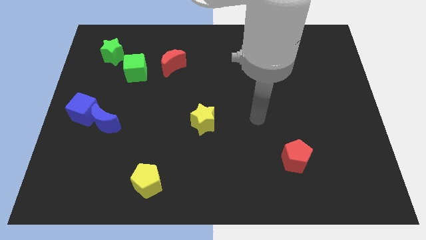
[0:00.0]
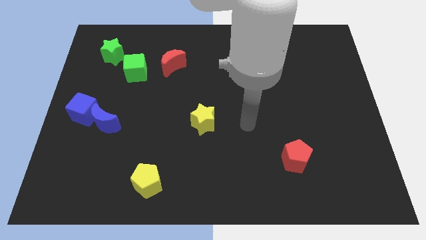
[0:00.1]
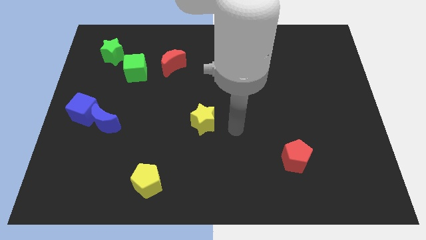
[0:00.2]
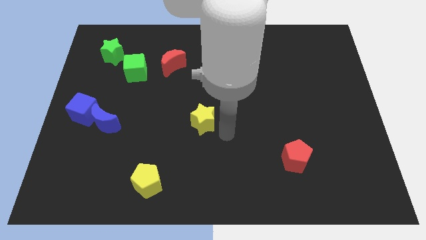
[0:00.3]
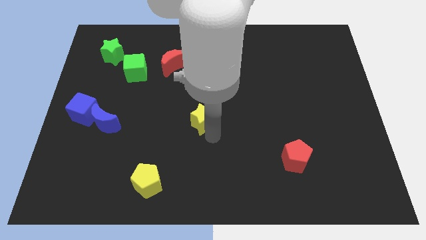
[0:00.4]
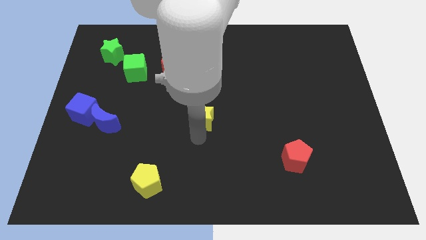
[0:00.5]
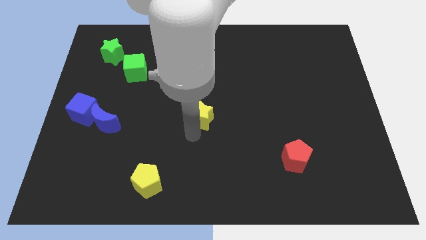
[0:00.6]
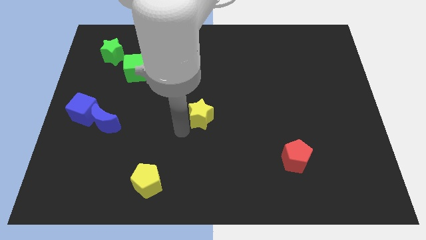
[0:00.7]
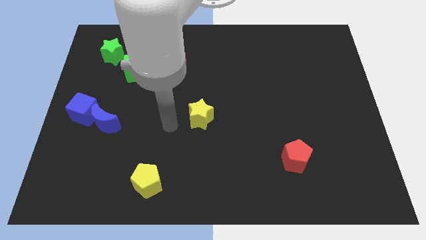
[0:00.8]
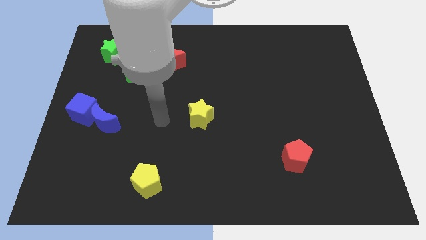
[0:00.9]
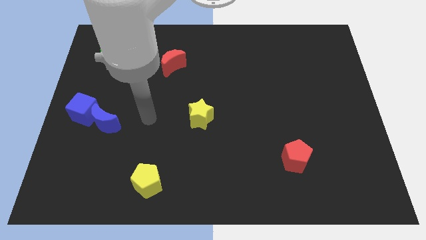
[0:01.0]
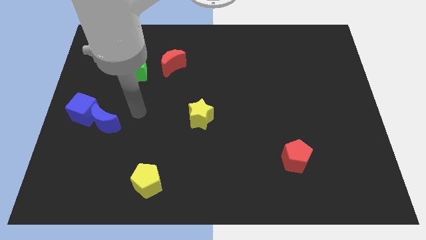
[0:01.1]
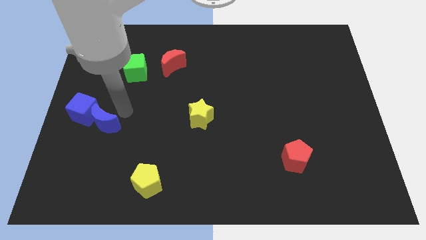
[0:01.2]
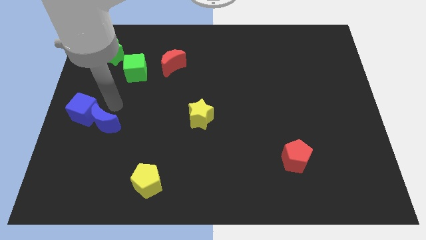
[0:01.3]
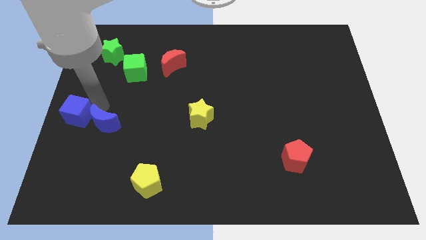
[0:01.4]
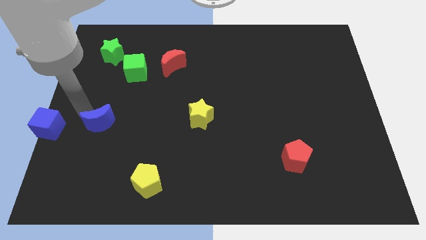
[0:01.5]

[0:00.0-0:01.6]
move the blue moon away from the blue cube

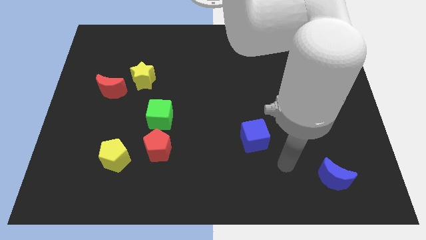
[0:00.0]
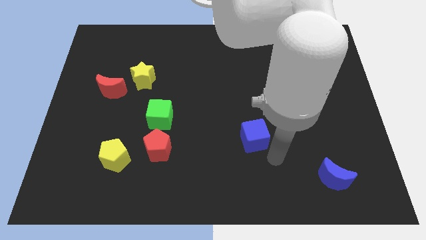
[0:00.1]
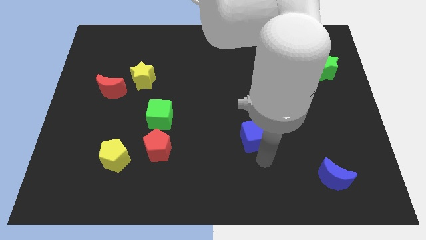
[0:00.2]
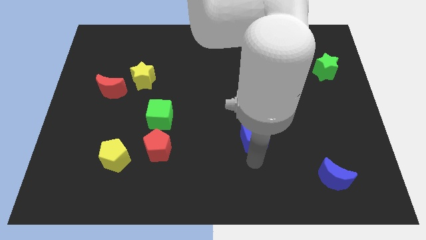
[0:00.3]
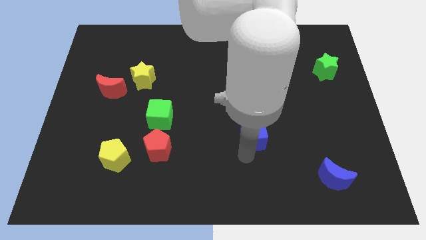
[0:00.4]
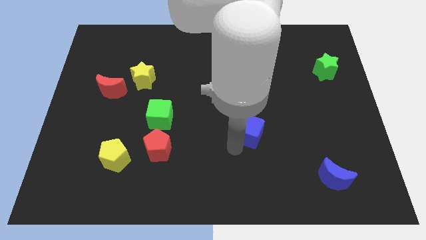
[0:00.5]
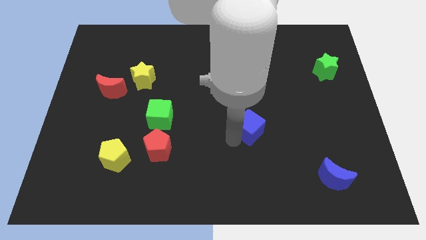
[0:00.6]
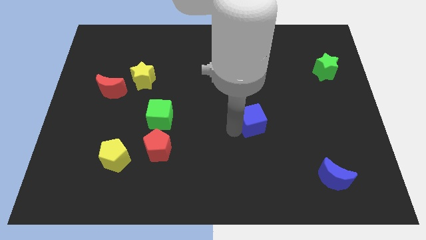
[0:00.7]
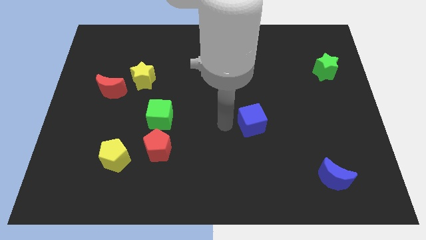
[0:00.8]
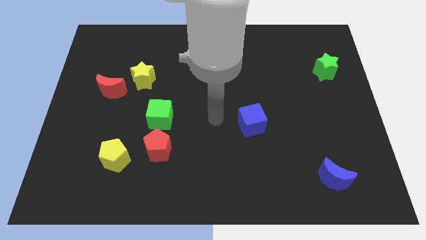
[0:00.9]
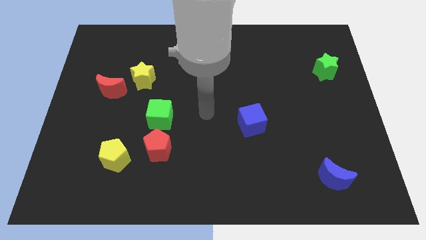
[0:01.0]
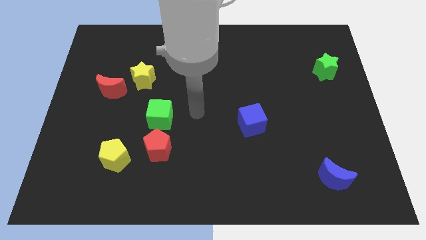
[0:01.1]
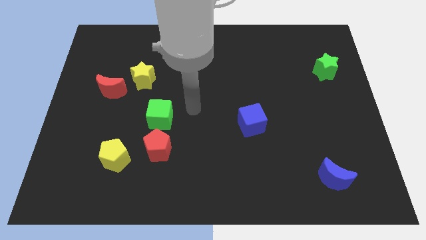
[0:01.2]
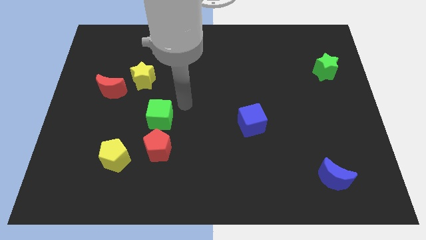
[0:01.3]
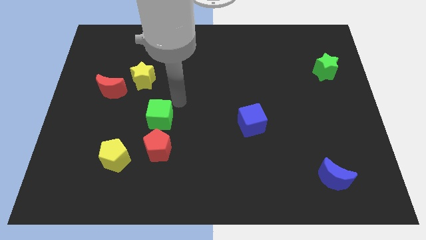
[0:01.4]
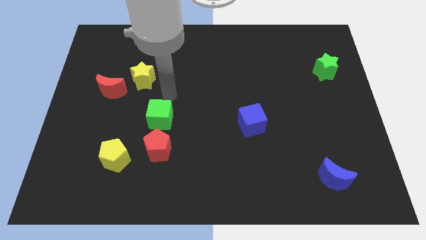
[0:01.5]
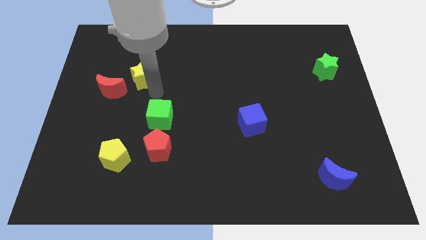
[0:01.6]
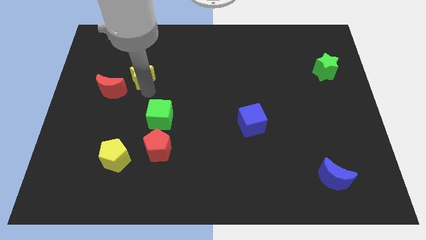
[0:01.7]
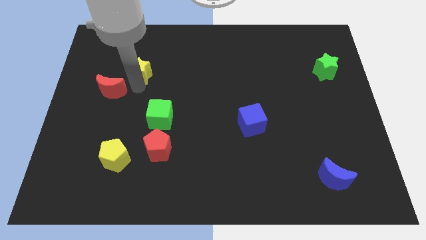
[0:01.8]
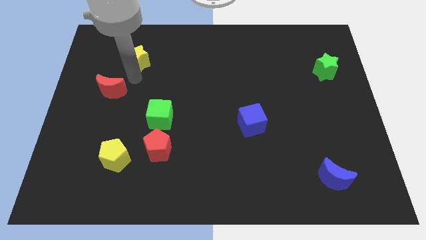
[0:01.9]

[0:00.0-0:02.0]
move the red moon away from the yellow star

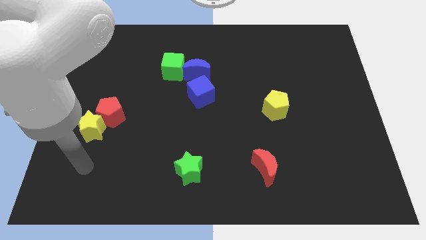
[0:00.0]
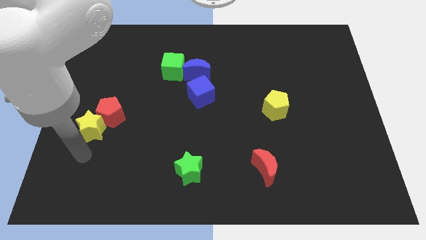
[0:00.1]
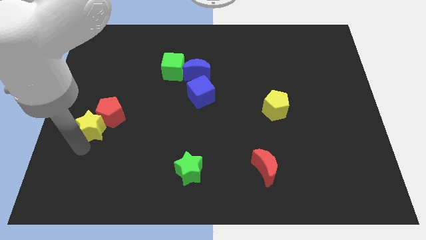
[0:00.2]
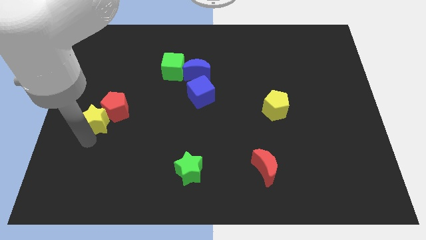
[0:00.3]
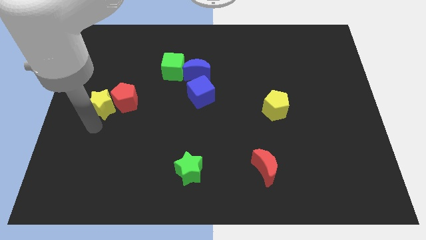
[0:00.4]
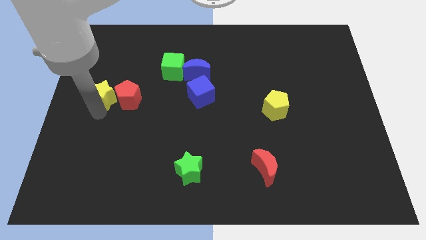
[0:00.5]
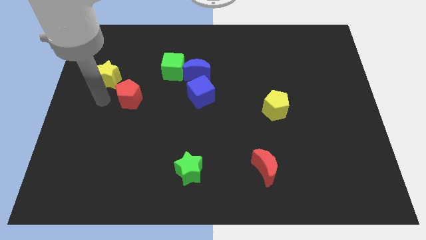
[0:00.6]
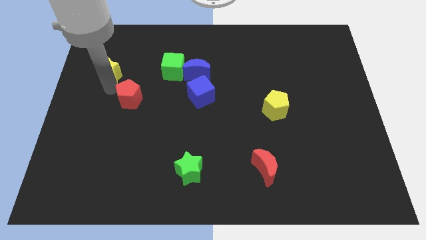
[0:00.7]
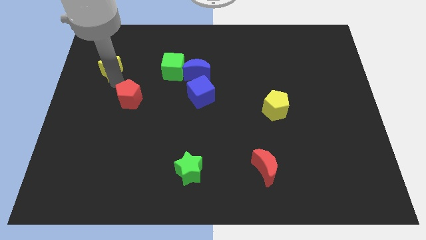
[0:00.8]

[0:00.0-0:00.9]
move the red pentagon away from the yellow star

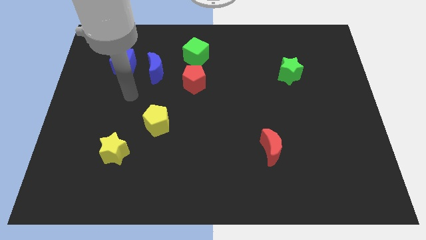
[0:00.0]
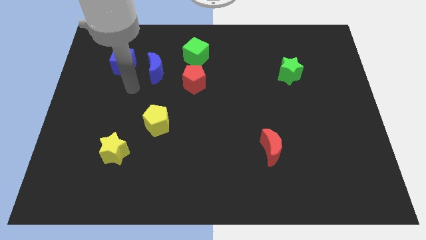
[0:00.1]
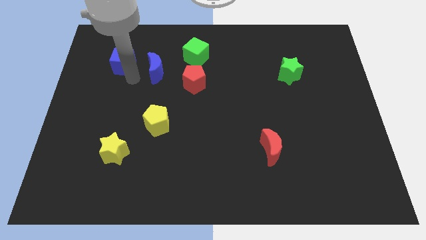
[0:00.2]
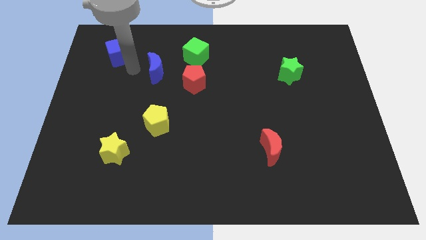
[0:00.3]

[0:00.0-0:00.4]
pull the blue moon apart from the blue cube

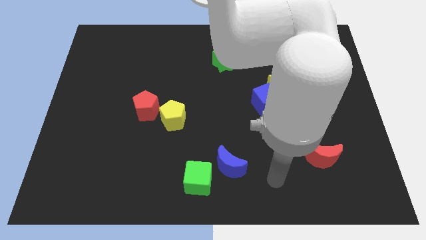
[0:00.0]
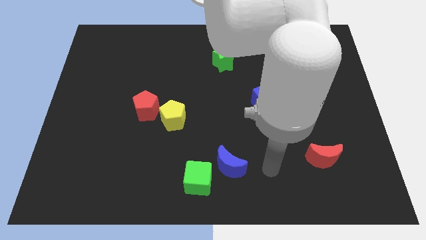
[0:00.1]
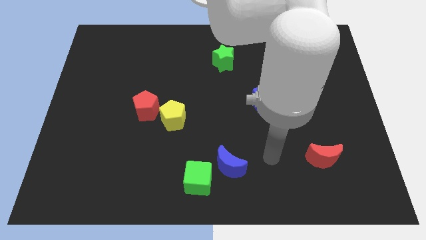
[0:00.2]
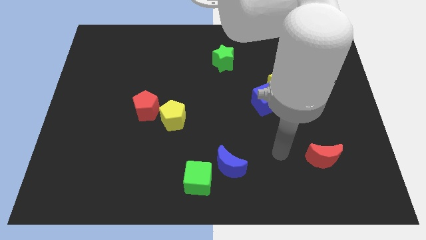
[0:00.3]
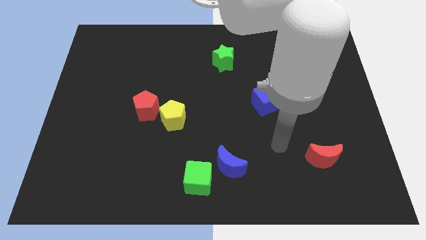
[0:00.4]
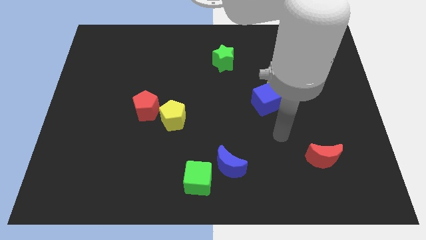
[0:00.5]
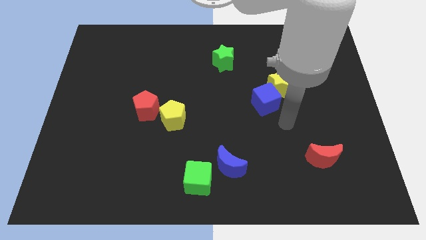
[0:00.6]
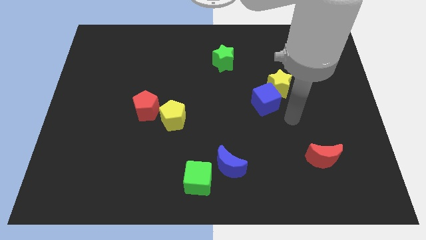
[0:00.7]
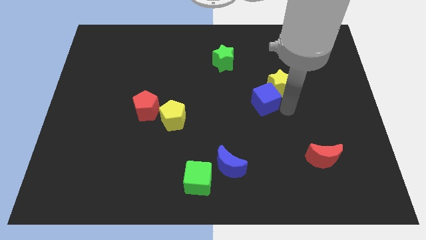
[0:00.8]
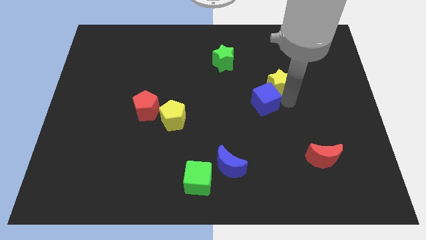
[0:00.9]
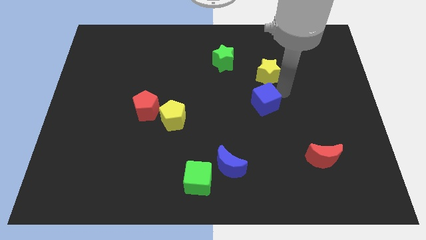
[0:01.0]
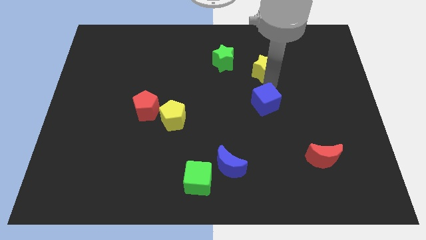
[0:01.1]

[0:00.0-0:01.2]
move the blue cube away from the yellow star

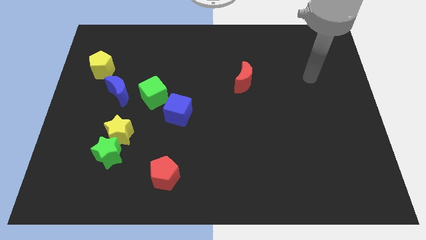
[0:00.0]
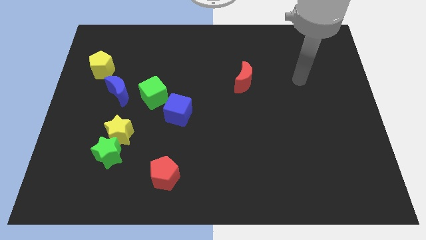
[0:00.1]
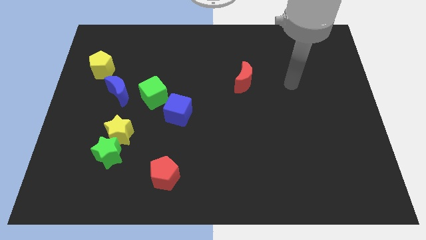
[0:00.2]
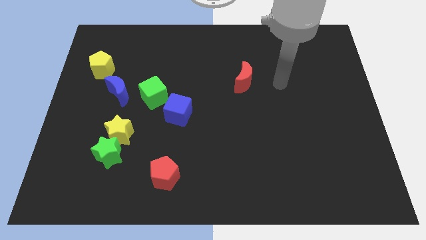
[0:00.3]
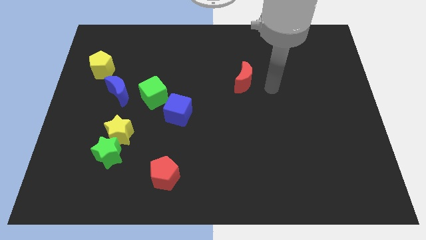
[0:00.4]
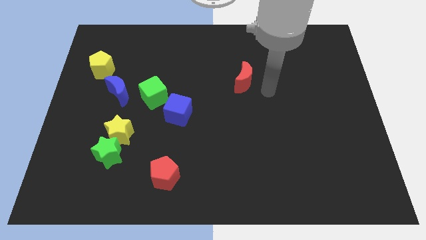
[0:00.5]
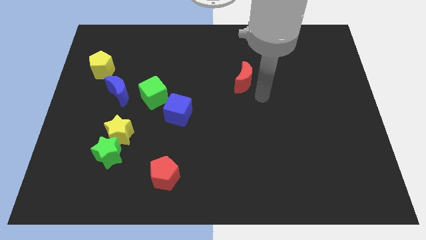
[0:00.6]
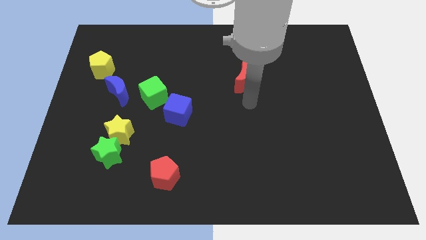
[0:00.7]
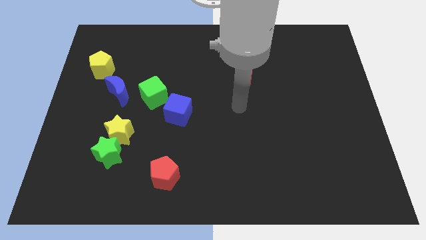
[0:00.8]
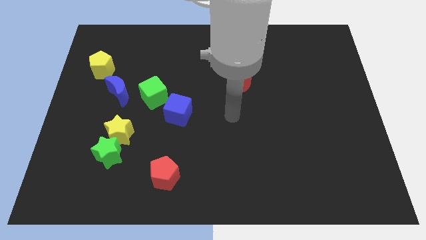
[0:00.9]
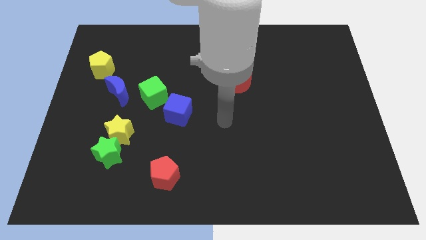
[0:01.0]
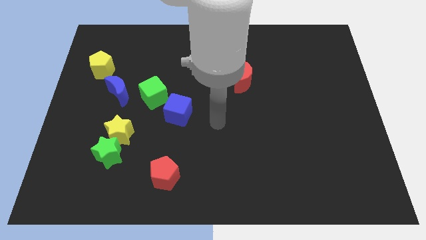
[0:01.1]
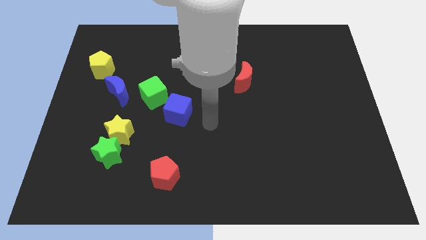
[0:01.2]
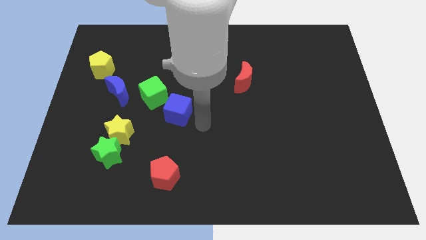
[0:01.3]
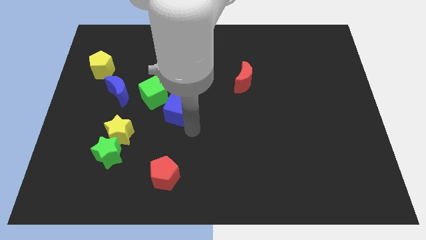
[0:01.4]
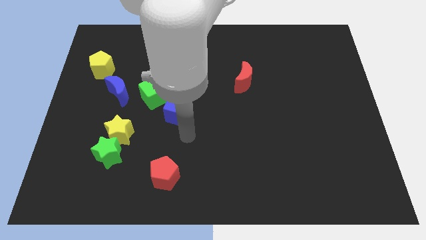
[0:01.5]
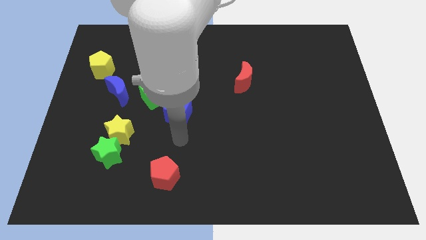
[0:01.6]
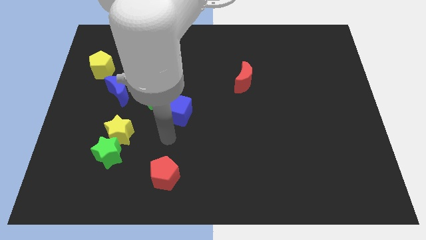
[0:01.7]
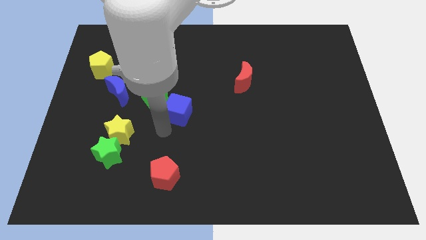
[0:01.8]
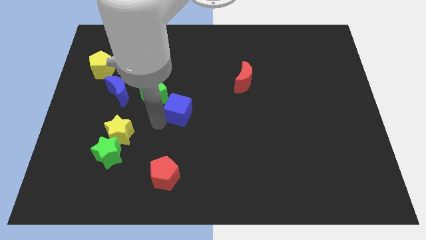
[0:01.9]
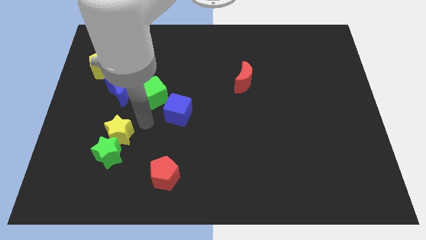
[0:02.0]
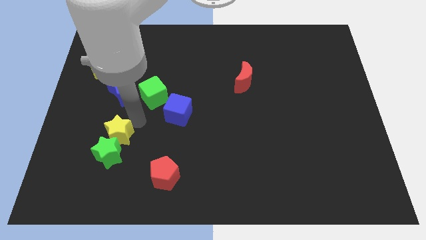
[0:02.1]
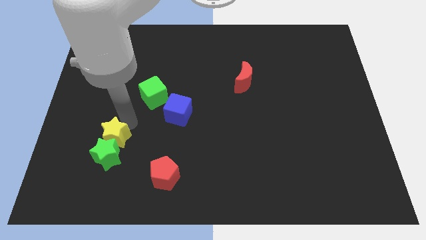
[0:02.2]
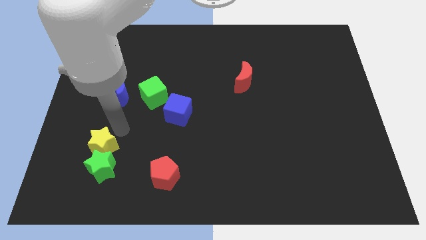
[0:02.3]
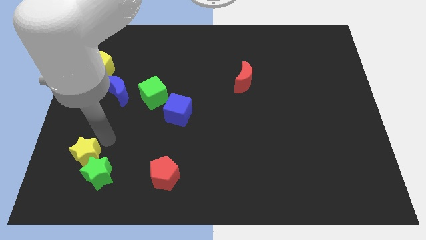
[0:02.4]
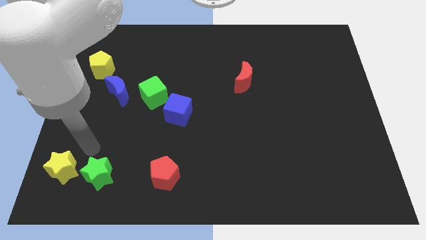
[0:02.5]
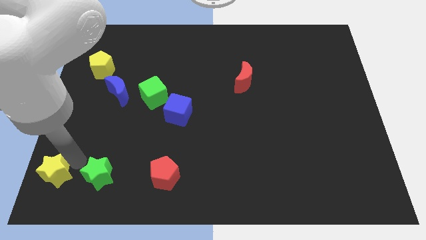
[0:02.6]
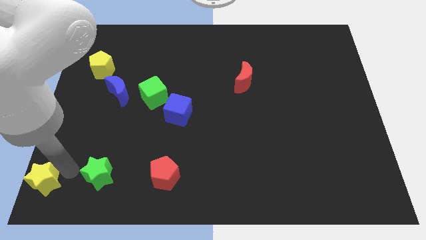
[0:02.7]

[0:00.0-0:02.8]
pull the green star apart from the yellow star

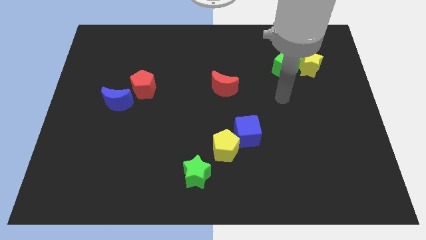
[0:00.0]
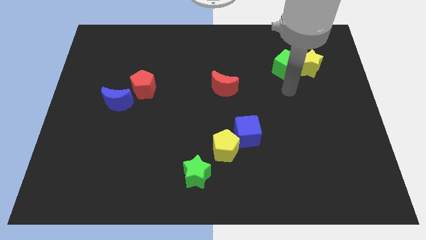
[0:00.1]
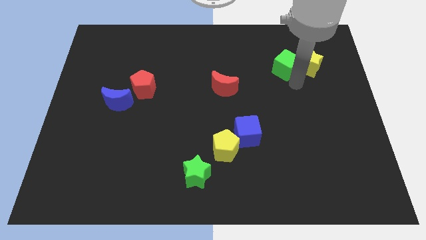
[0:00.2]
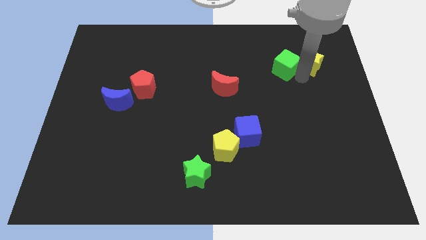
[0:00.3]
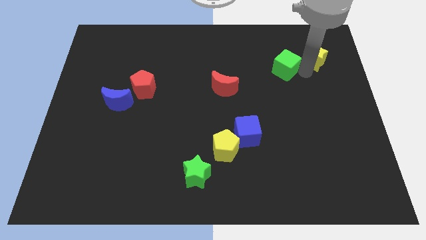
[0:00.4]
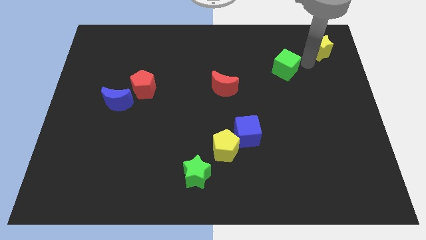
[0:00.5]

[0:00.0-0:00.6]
separate the green cube from the yellow star
